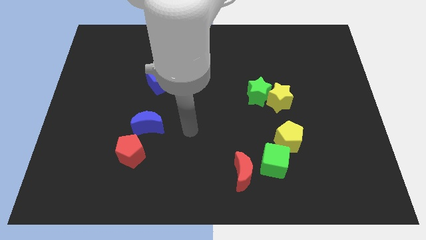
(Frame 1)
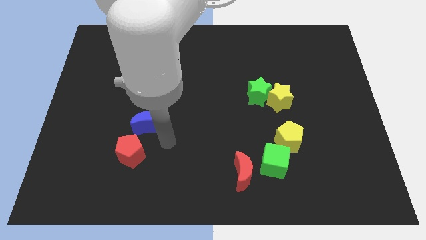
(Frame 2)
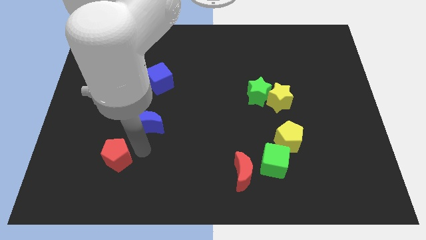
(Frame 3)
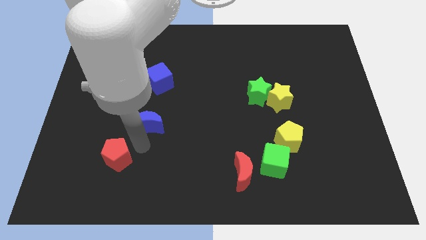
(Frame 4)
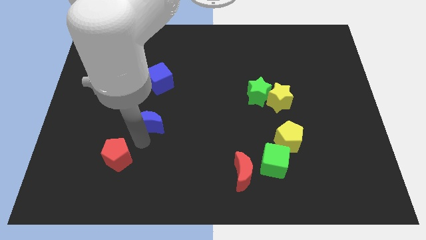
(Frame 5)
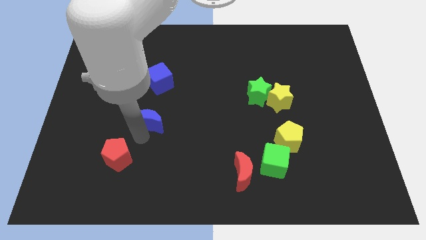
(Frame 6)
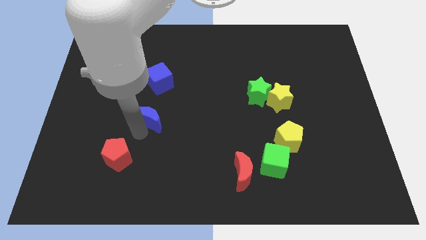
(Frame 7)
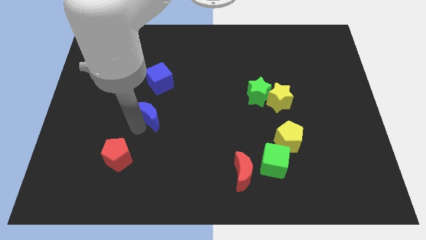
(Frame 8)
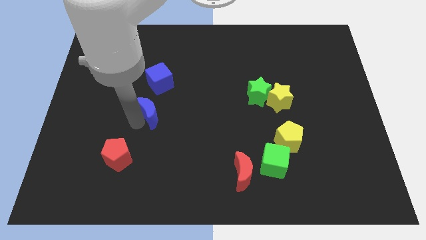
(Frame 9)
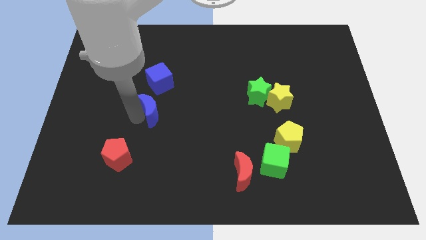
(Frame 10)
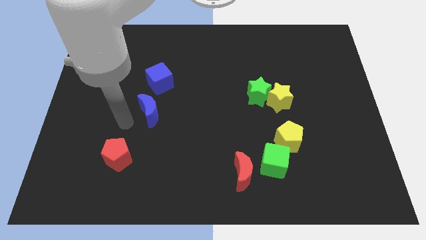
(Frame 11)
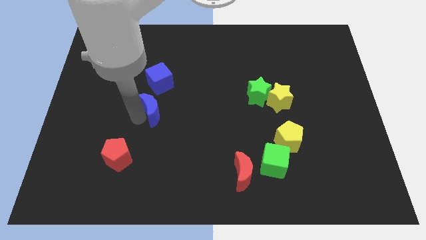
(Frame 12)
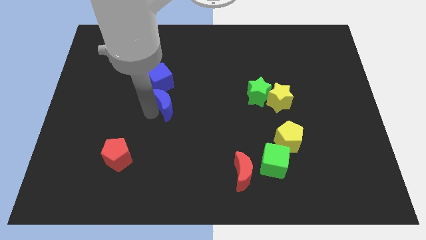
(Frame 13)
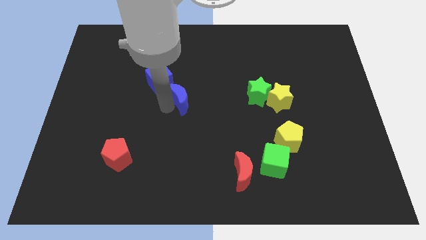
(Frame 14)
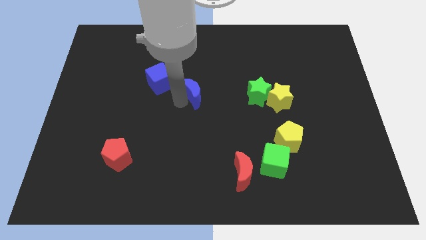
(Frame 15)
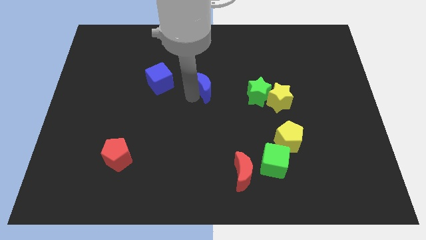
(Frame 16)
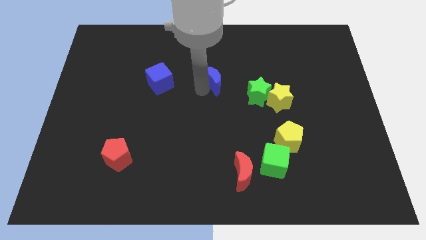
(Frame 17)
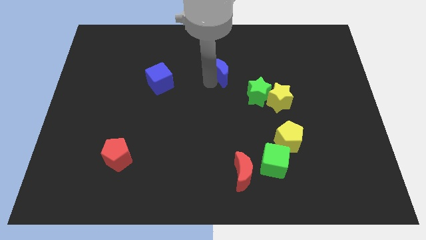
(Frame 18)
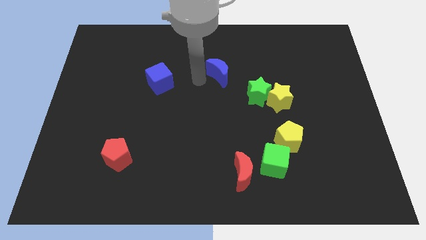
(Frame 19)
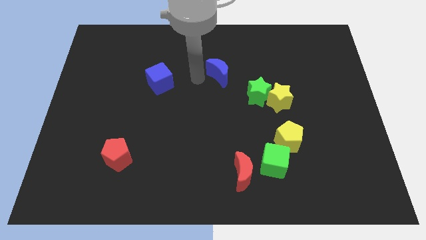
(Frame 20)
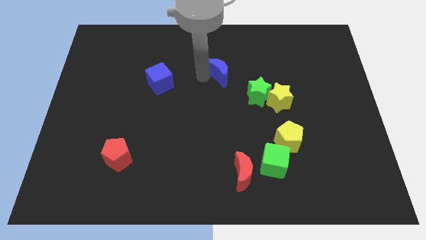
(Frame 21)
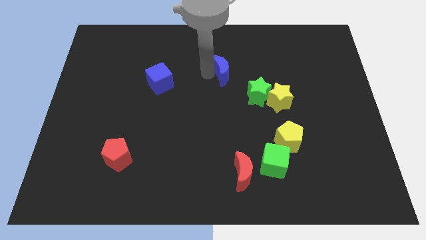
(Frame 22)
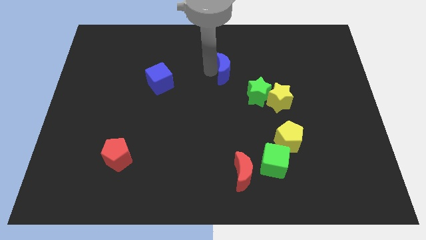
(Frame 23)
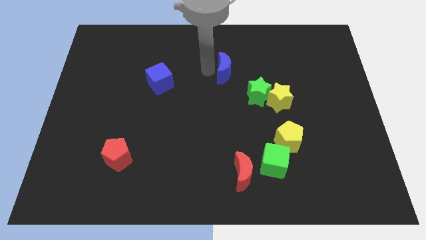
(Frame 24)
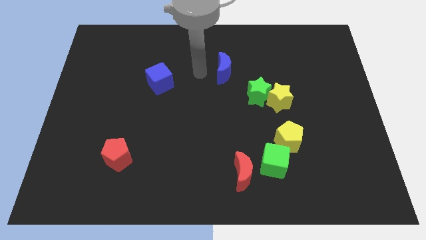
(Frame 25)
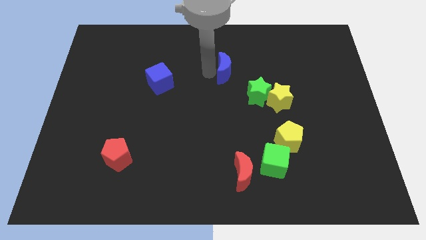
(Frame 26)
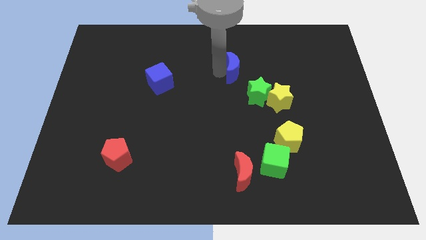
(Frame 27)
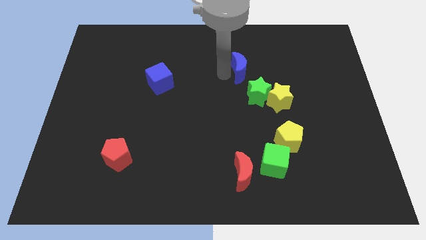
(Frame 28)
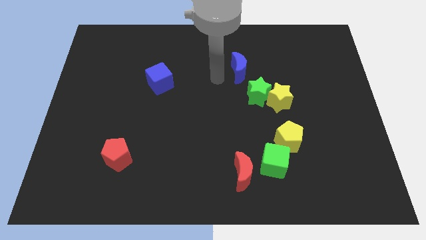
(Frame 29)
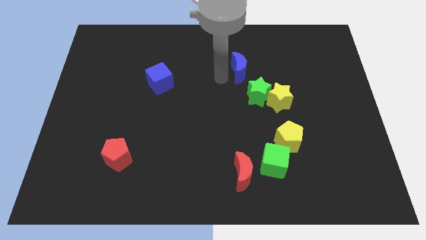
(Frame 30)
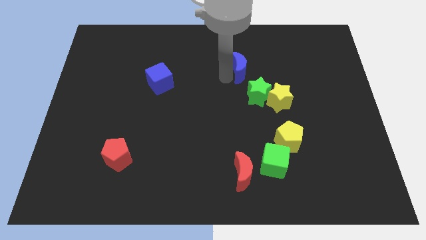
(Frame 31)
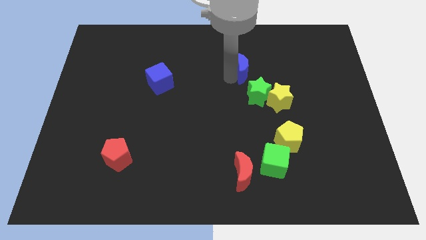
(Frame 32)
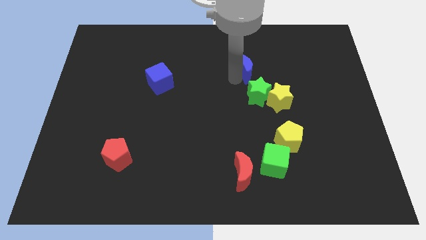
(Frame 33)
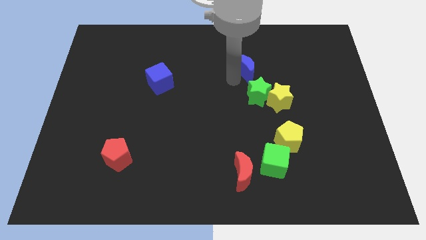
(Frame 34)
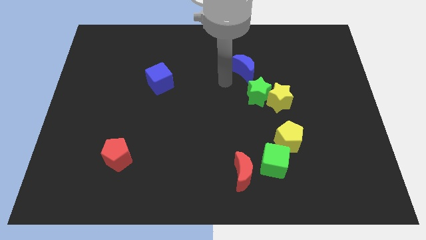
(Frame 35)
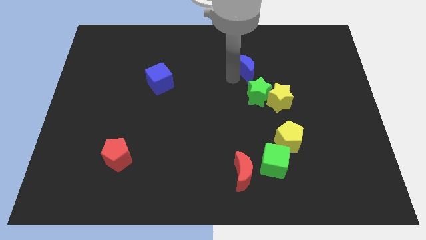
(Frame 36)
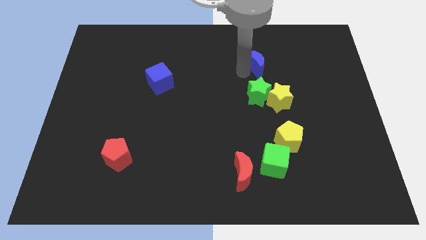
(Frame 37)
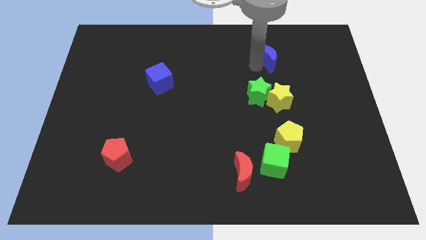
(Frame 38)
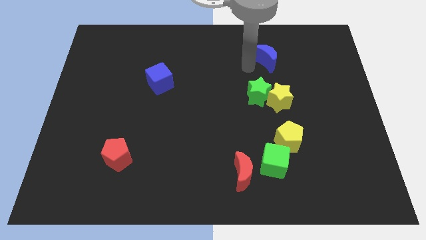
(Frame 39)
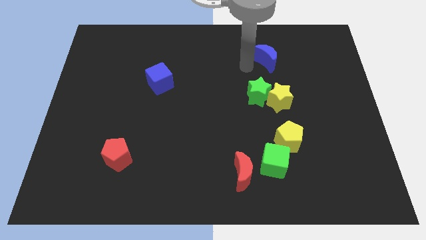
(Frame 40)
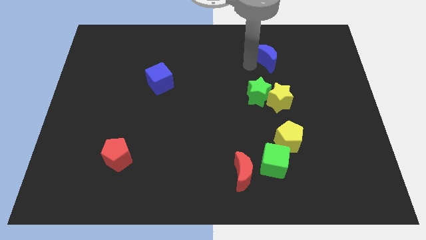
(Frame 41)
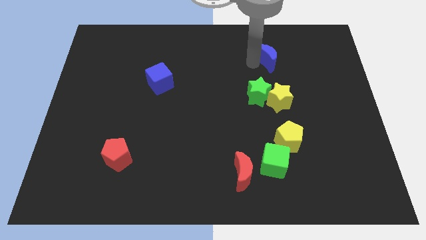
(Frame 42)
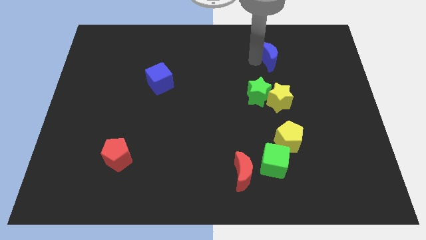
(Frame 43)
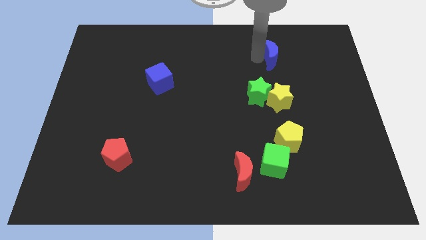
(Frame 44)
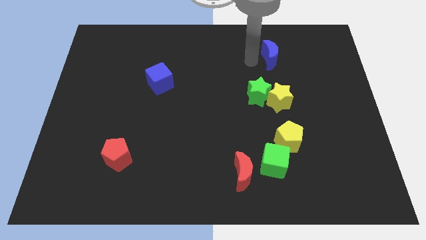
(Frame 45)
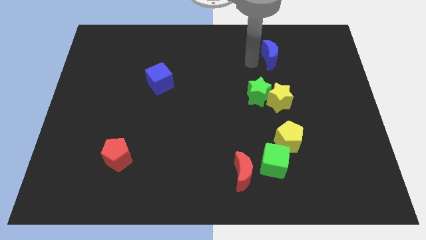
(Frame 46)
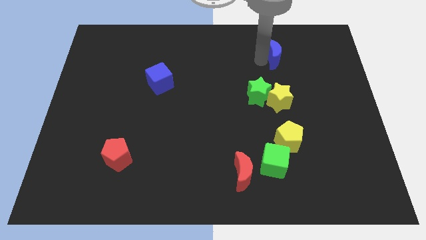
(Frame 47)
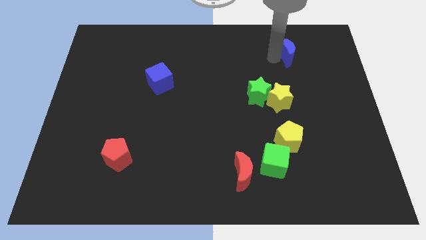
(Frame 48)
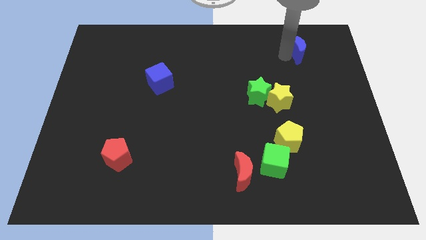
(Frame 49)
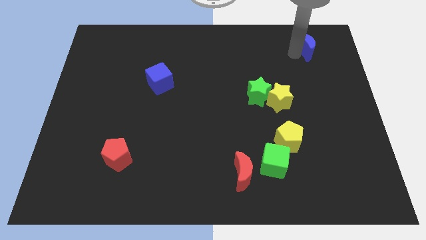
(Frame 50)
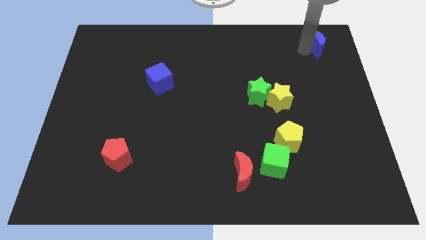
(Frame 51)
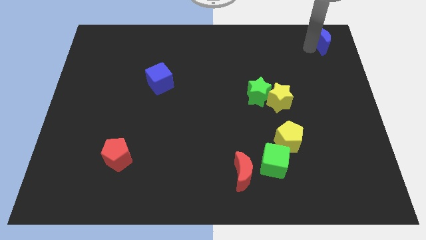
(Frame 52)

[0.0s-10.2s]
put the blue moon to the top right of the board
